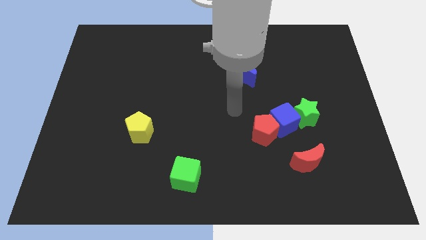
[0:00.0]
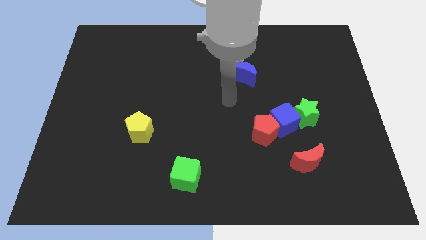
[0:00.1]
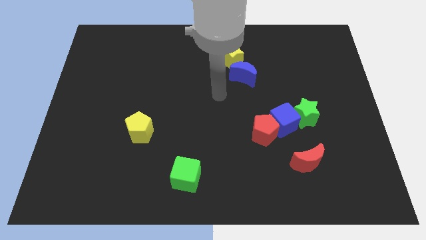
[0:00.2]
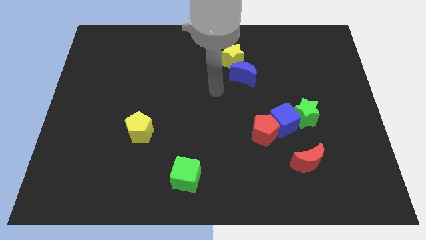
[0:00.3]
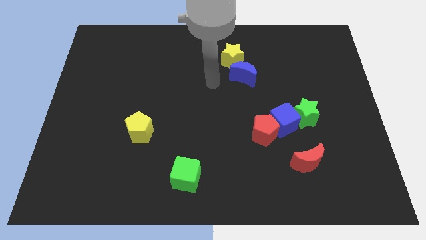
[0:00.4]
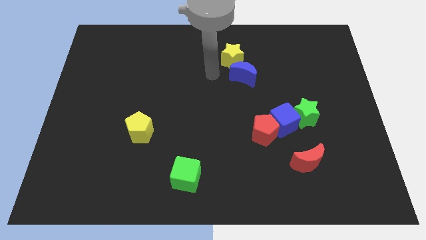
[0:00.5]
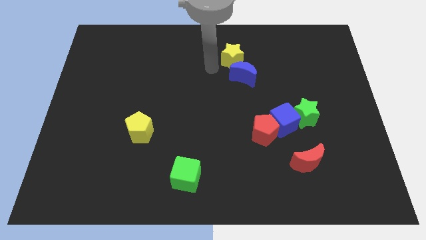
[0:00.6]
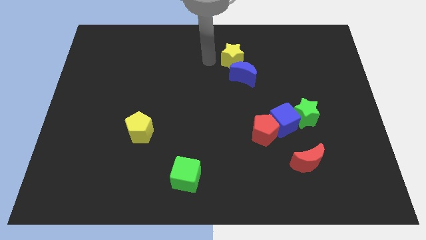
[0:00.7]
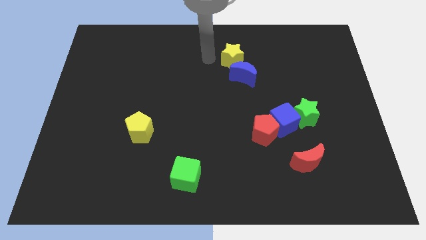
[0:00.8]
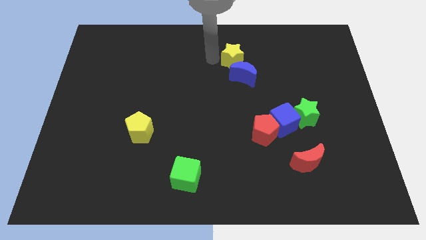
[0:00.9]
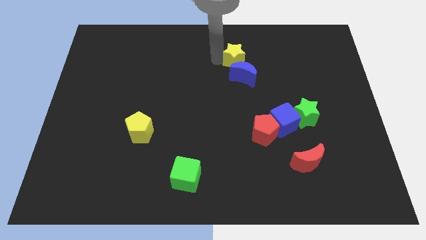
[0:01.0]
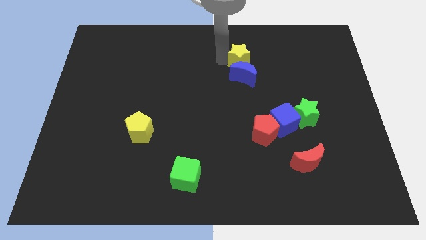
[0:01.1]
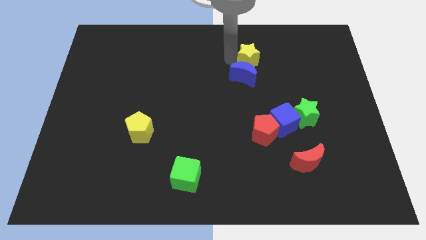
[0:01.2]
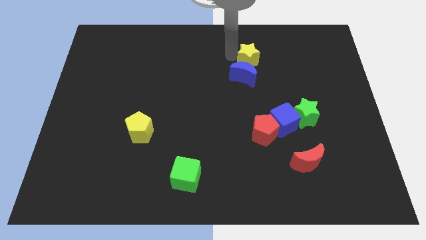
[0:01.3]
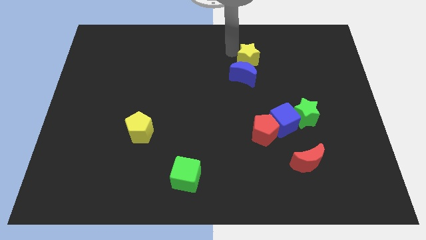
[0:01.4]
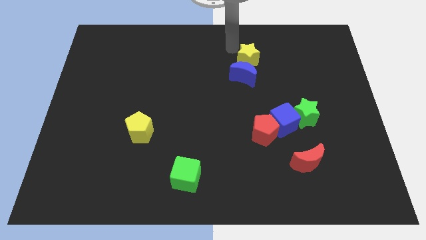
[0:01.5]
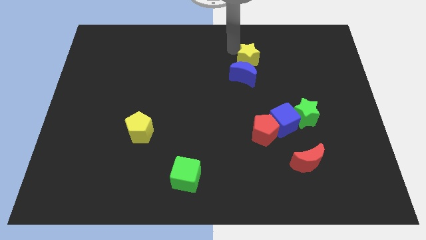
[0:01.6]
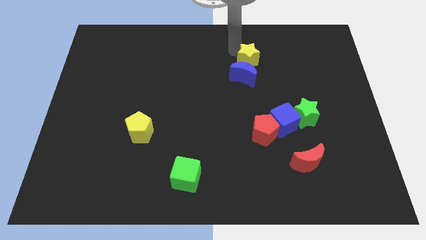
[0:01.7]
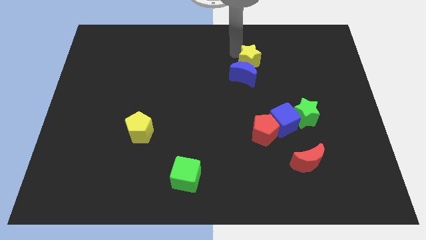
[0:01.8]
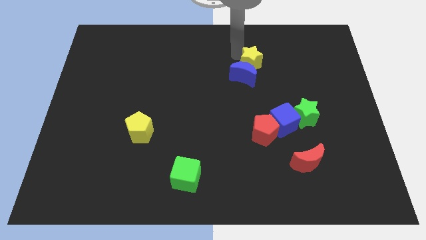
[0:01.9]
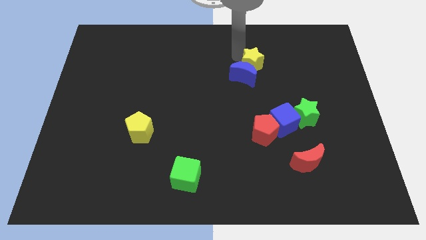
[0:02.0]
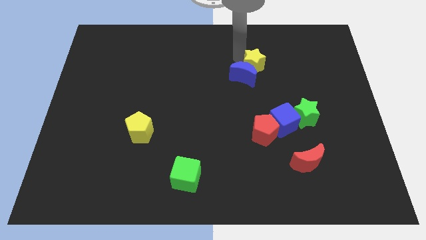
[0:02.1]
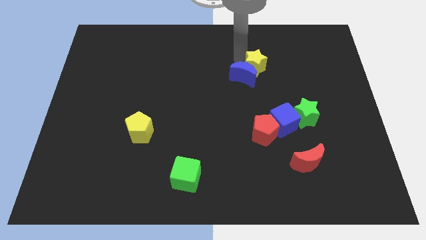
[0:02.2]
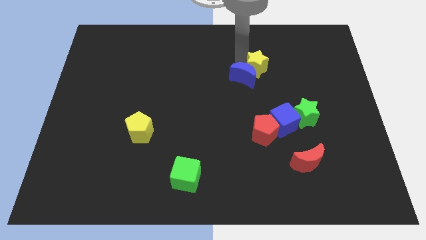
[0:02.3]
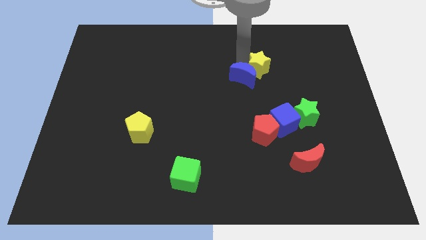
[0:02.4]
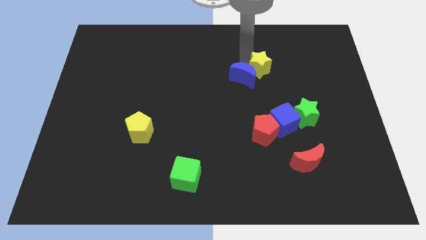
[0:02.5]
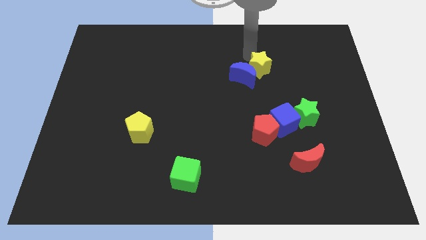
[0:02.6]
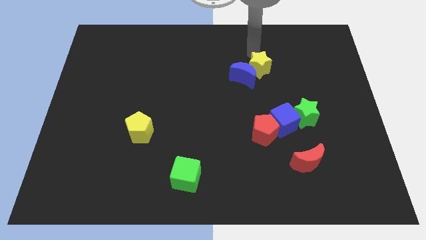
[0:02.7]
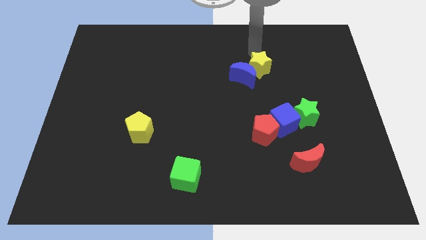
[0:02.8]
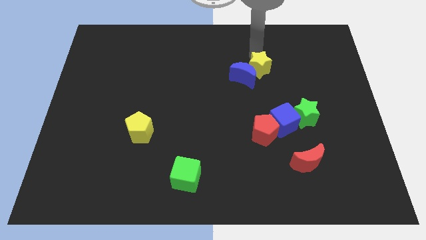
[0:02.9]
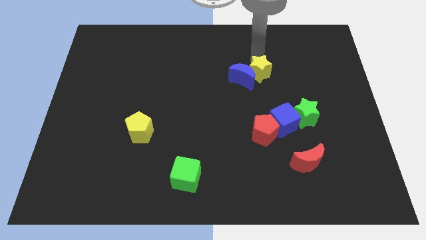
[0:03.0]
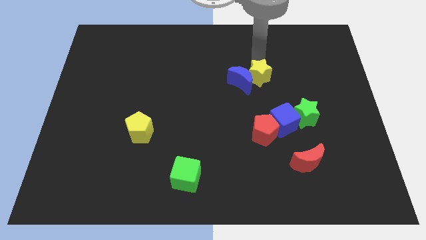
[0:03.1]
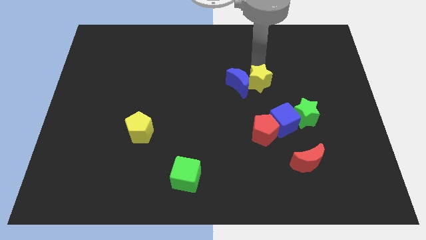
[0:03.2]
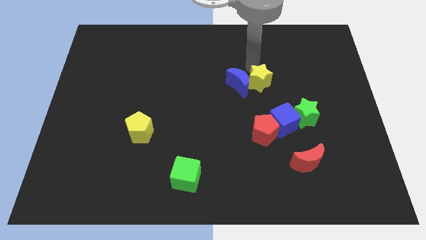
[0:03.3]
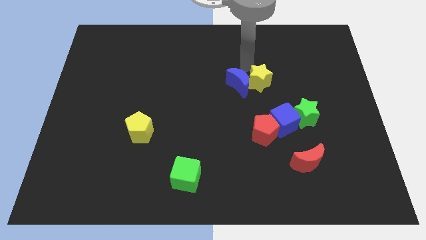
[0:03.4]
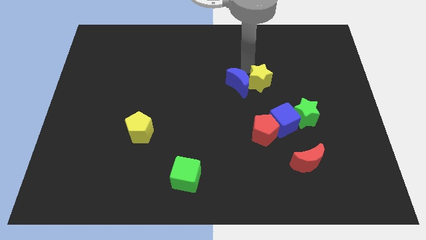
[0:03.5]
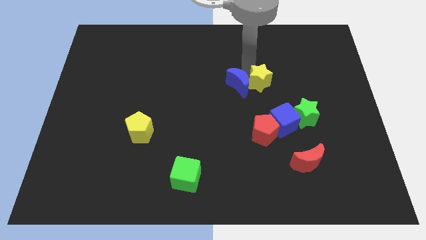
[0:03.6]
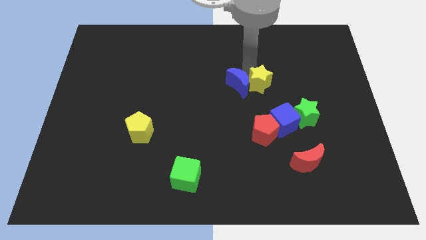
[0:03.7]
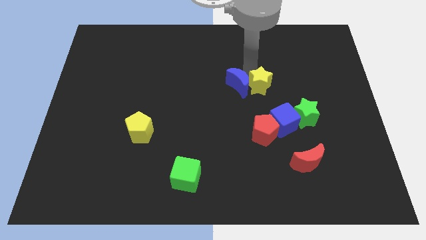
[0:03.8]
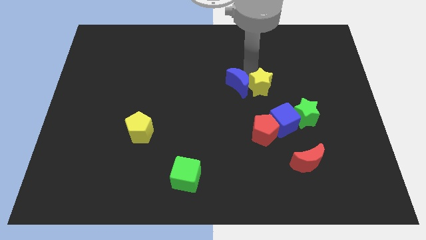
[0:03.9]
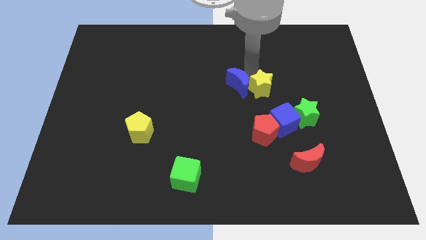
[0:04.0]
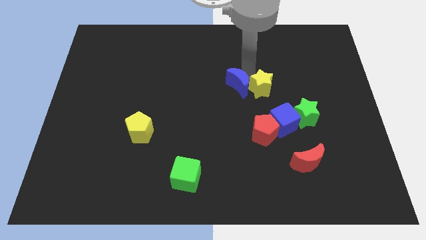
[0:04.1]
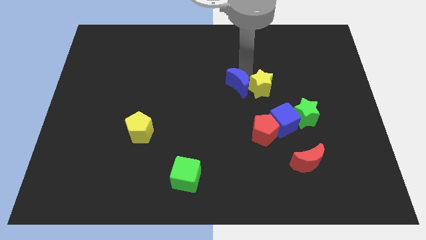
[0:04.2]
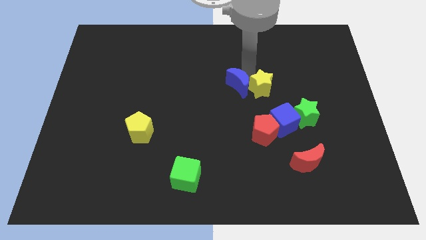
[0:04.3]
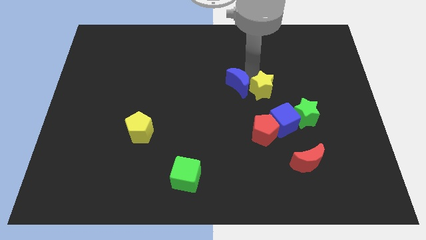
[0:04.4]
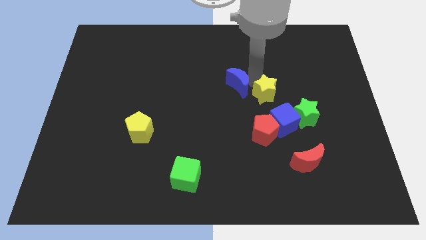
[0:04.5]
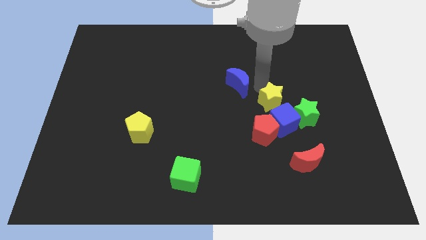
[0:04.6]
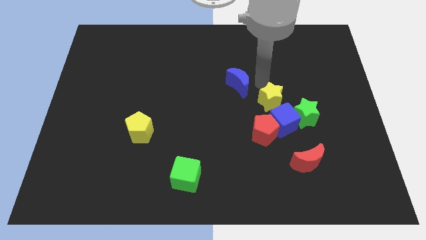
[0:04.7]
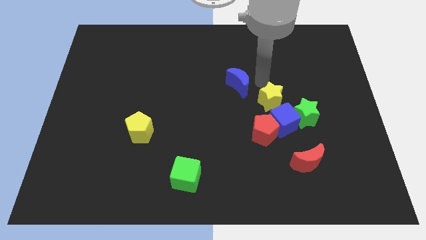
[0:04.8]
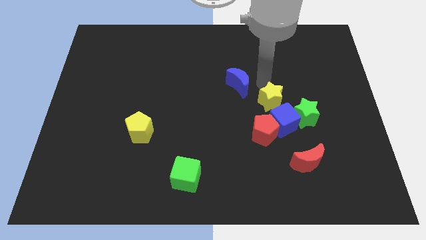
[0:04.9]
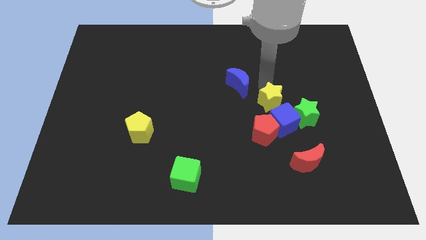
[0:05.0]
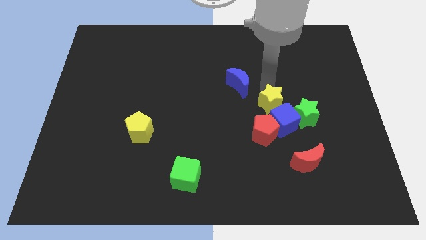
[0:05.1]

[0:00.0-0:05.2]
put the yellow star to the blue cube

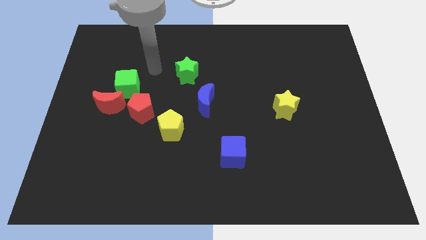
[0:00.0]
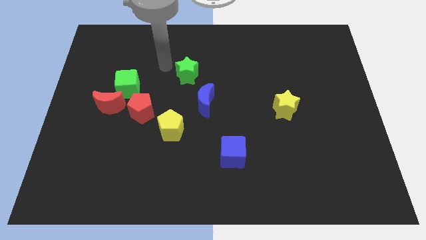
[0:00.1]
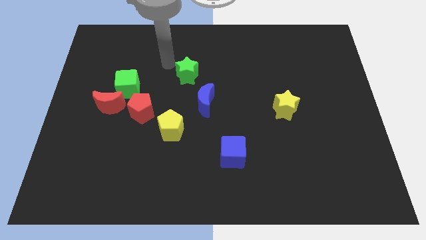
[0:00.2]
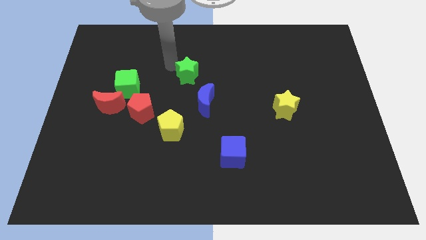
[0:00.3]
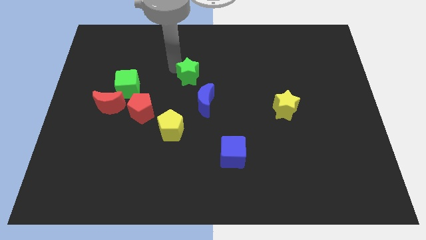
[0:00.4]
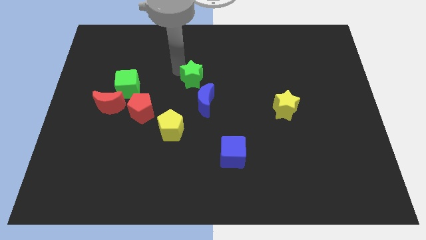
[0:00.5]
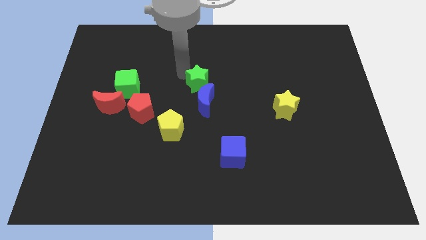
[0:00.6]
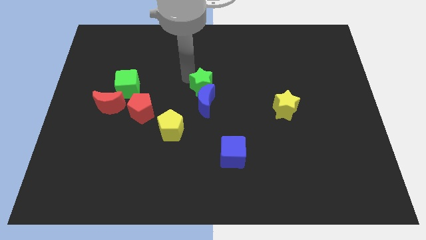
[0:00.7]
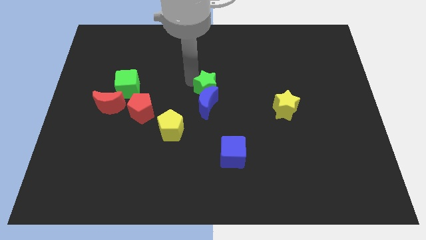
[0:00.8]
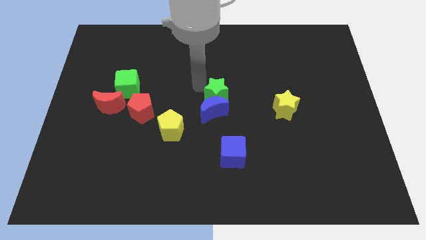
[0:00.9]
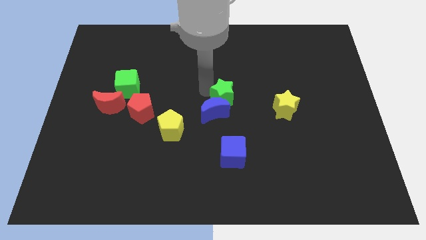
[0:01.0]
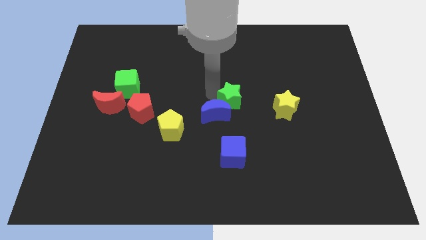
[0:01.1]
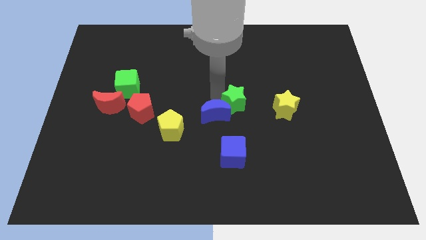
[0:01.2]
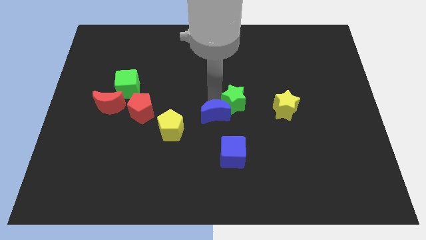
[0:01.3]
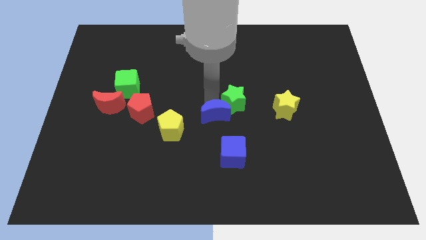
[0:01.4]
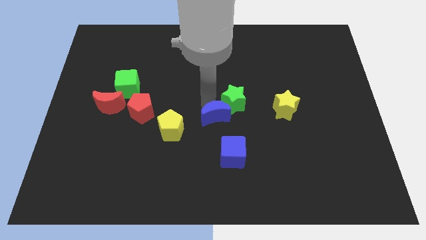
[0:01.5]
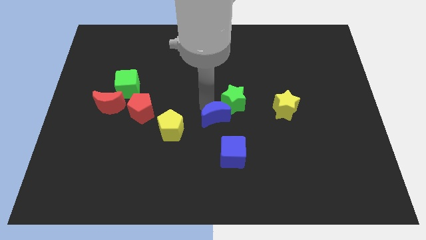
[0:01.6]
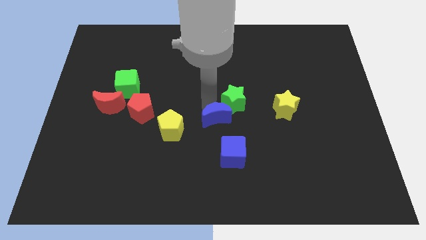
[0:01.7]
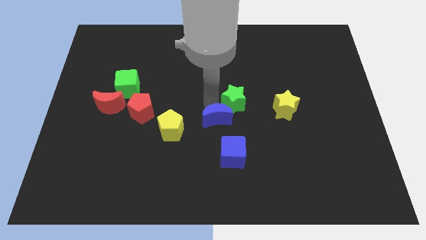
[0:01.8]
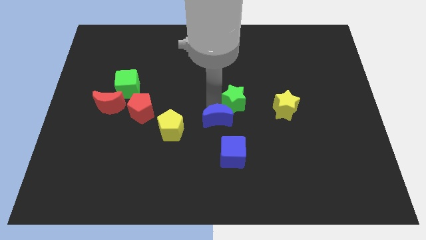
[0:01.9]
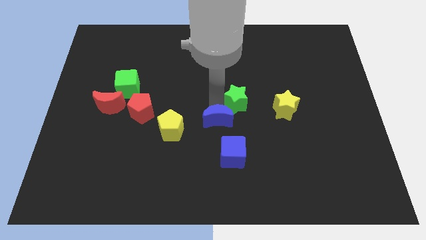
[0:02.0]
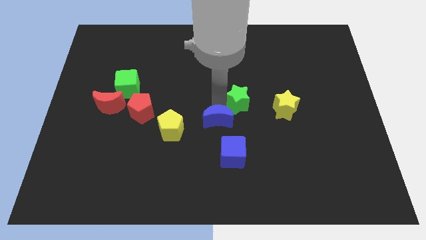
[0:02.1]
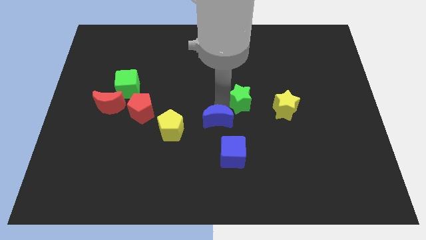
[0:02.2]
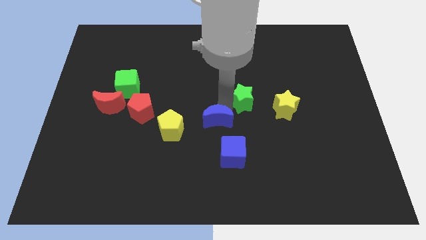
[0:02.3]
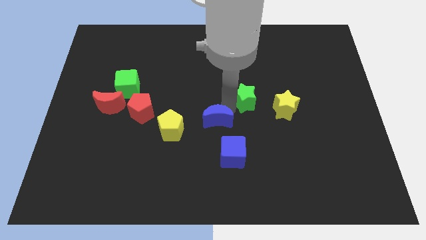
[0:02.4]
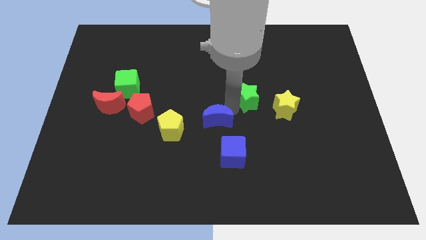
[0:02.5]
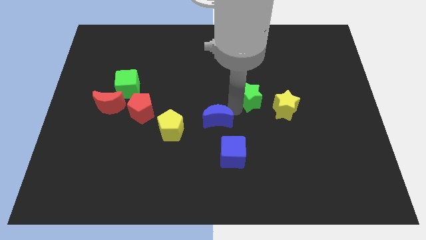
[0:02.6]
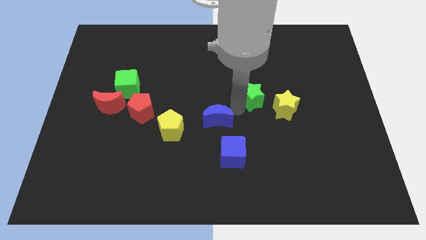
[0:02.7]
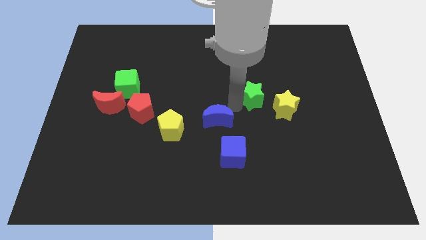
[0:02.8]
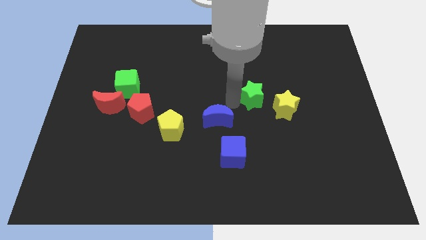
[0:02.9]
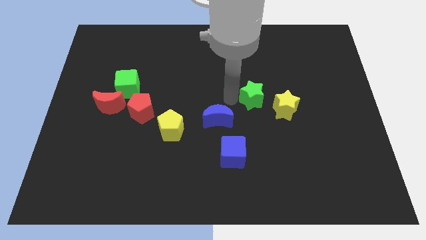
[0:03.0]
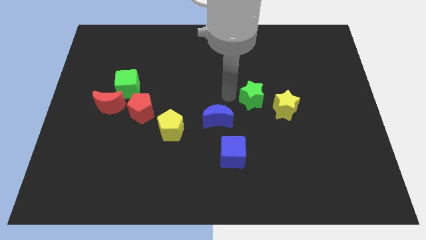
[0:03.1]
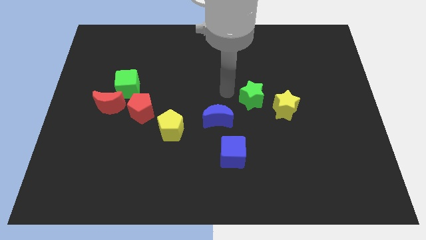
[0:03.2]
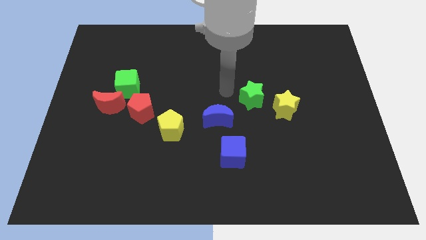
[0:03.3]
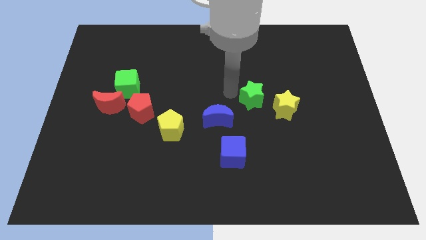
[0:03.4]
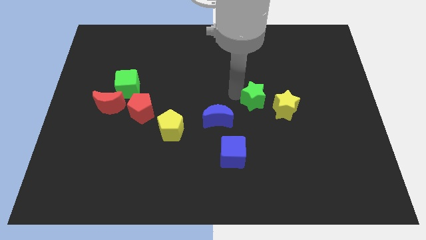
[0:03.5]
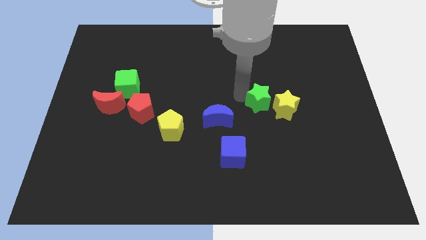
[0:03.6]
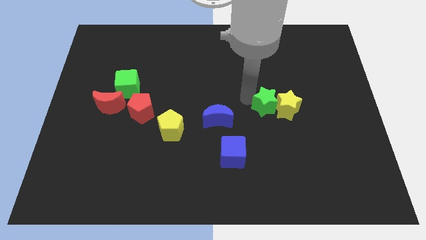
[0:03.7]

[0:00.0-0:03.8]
push the green star to the yellow star
